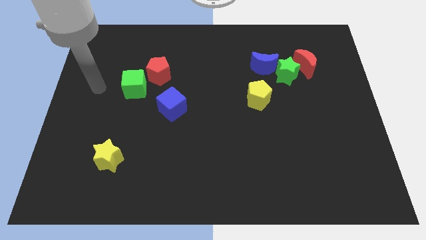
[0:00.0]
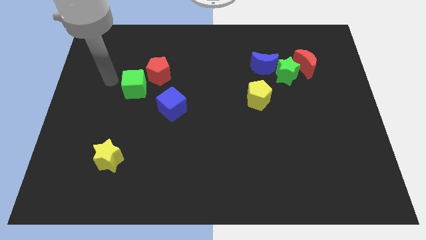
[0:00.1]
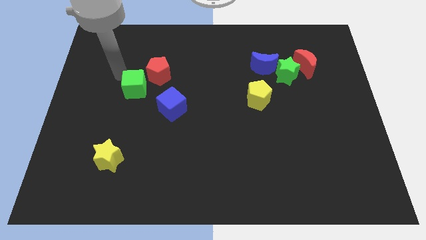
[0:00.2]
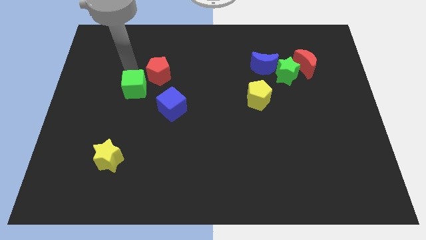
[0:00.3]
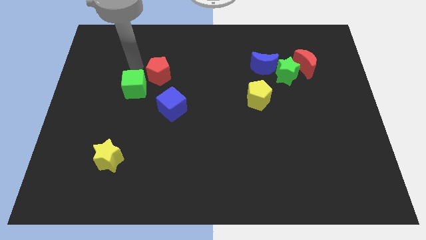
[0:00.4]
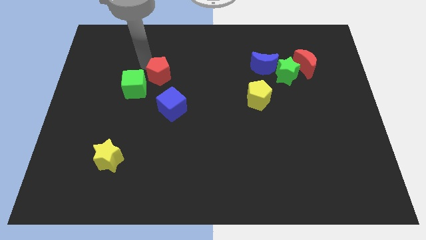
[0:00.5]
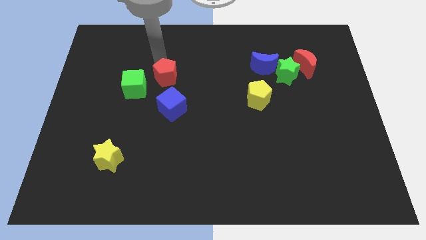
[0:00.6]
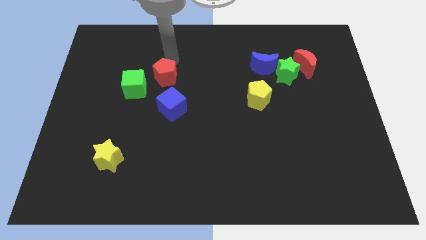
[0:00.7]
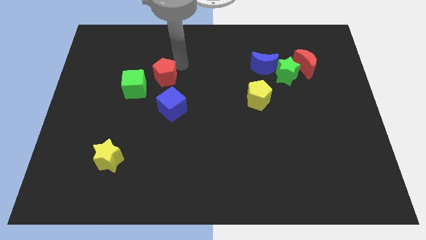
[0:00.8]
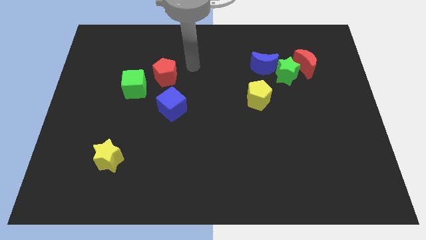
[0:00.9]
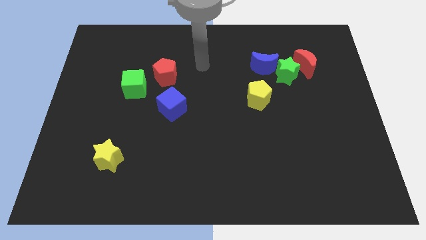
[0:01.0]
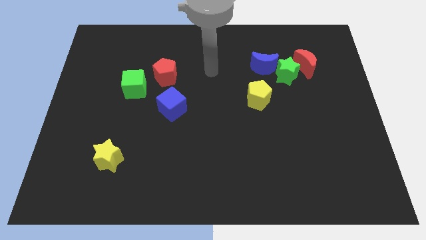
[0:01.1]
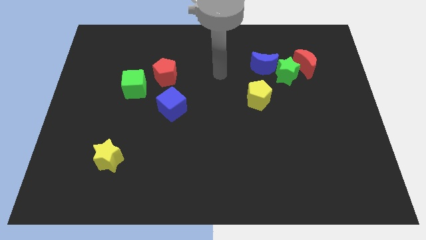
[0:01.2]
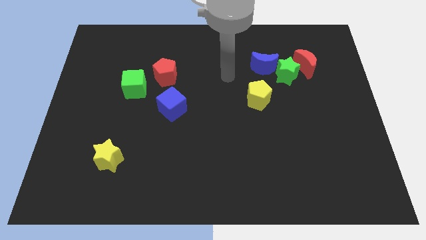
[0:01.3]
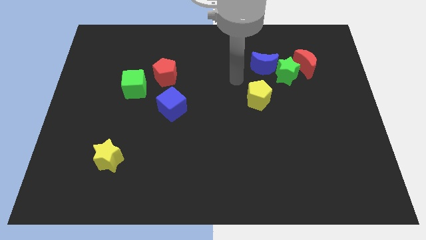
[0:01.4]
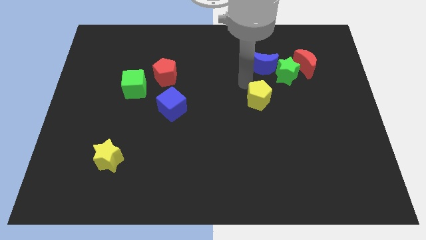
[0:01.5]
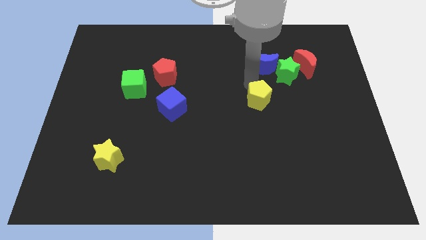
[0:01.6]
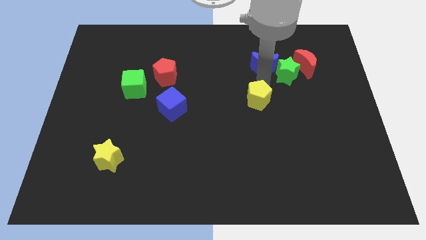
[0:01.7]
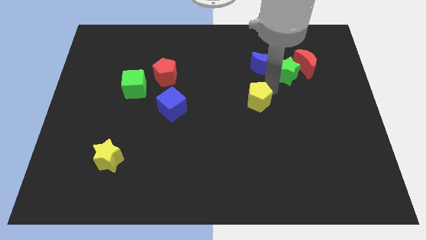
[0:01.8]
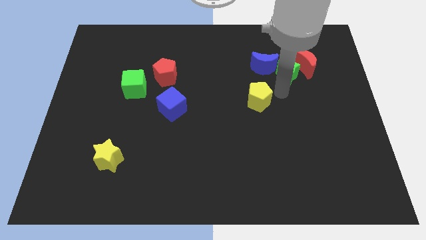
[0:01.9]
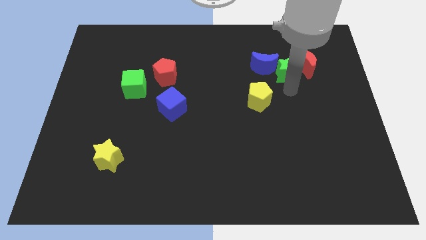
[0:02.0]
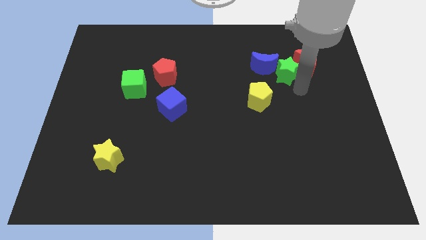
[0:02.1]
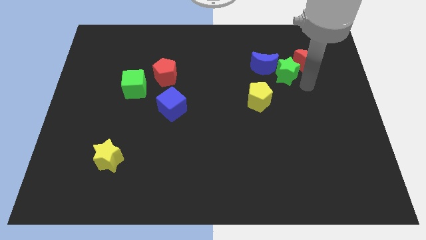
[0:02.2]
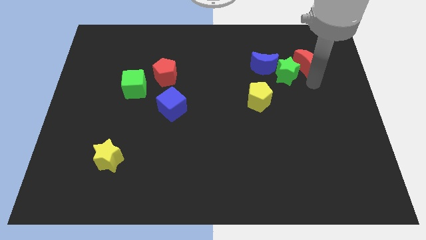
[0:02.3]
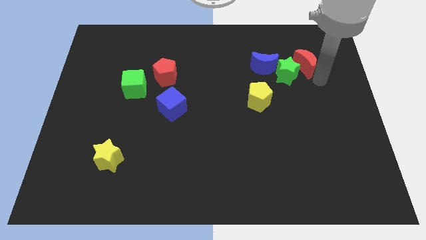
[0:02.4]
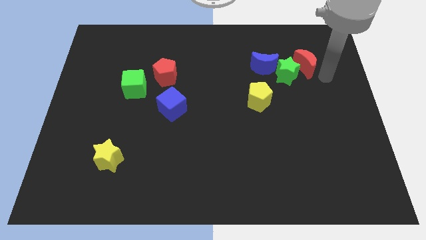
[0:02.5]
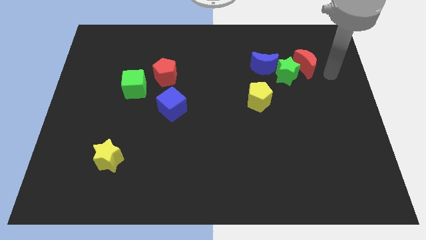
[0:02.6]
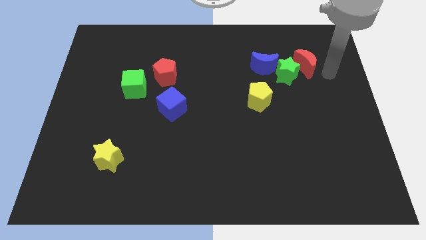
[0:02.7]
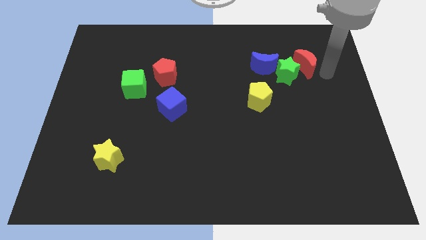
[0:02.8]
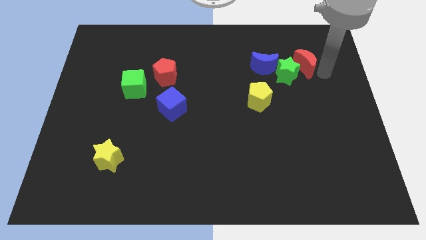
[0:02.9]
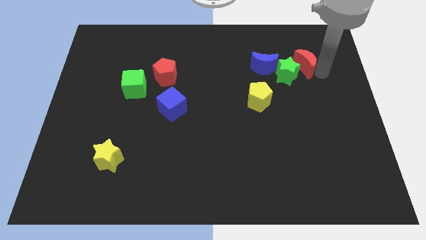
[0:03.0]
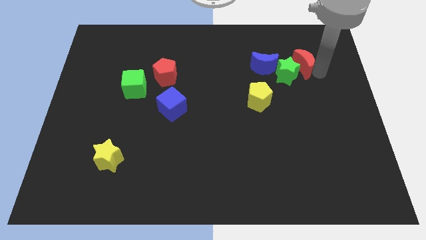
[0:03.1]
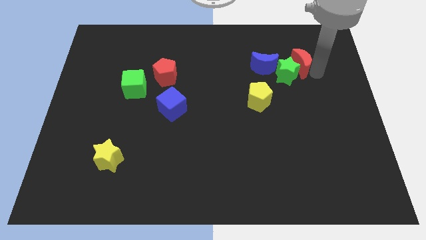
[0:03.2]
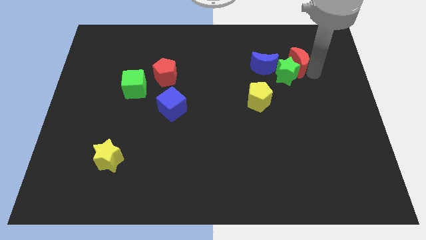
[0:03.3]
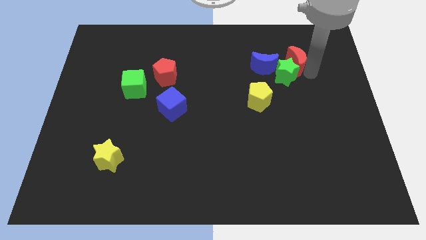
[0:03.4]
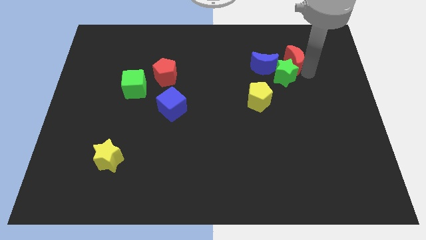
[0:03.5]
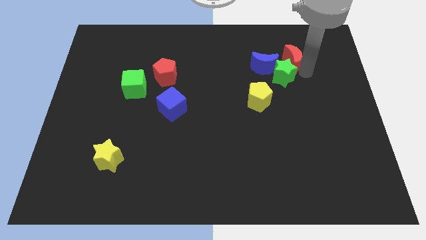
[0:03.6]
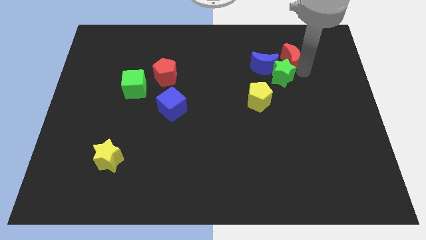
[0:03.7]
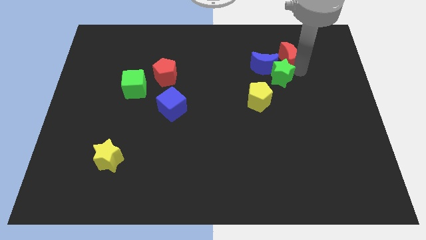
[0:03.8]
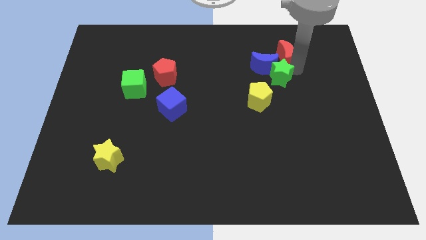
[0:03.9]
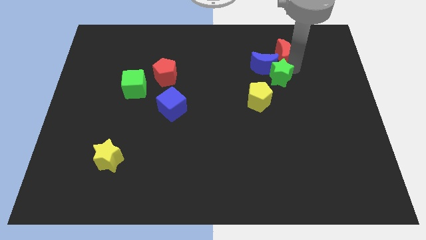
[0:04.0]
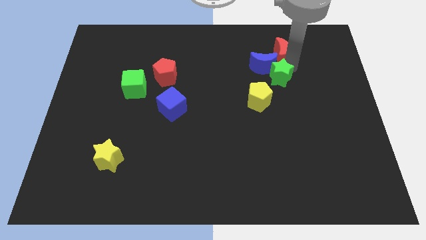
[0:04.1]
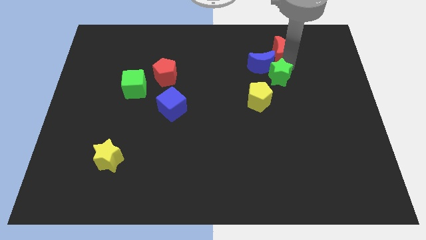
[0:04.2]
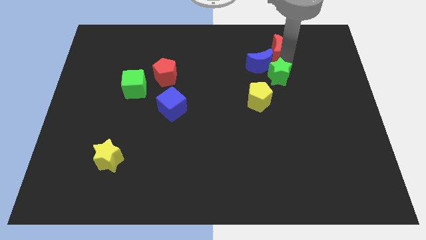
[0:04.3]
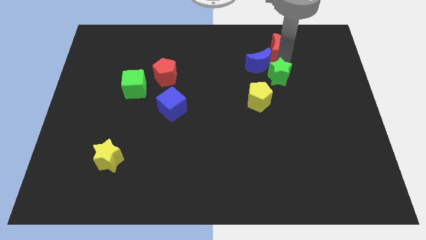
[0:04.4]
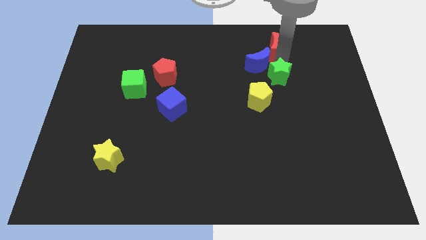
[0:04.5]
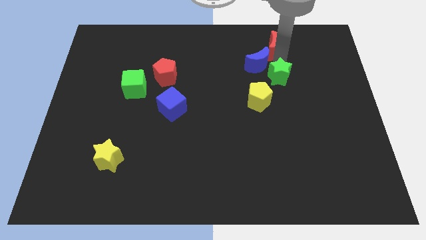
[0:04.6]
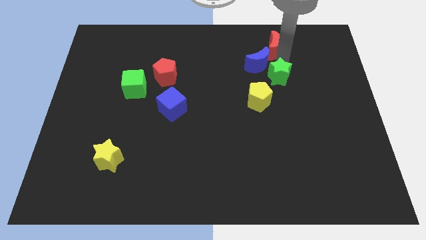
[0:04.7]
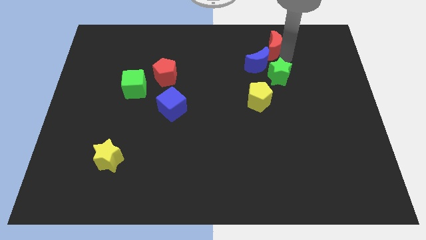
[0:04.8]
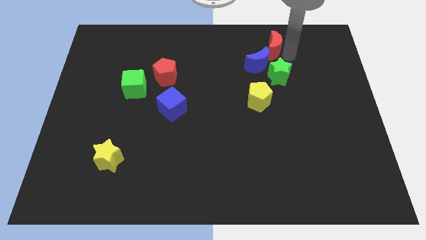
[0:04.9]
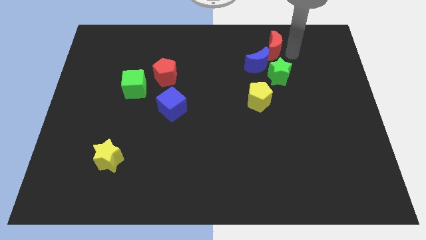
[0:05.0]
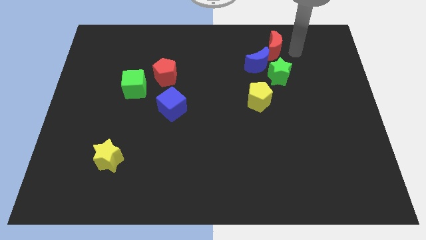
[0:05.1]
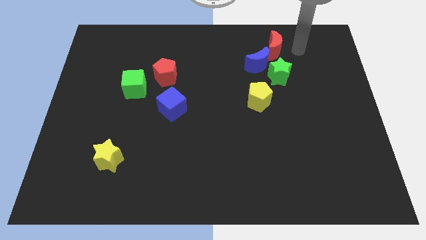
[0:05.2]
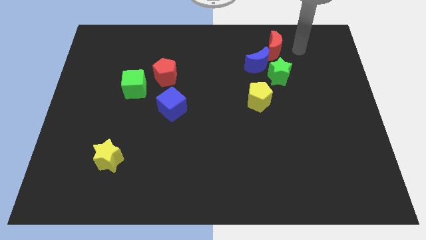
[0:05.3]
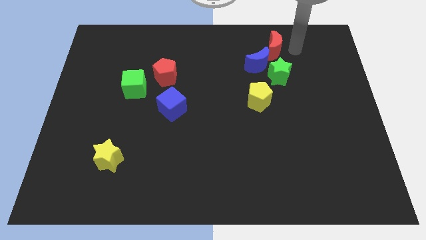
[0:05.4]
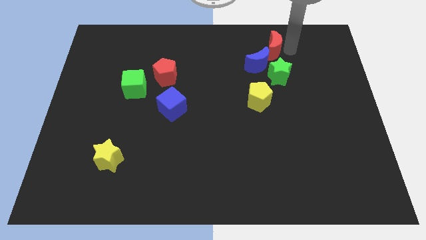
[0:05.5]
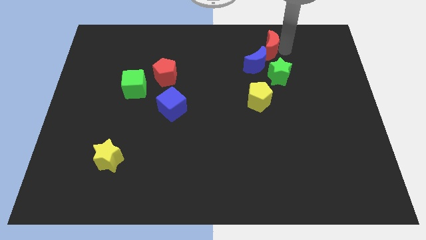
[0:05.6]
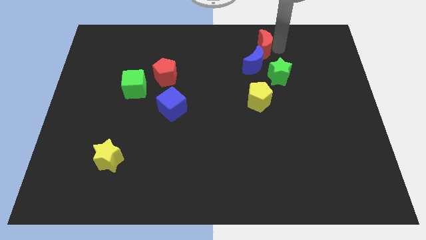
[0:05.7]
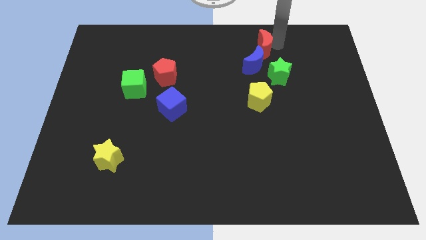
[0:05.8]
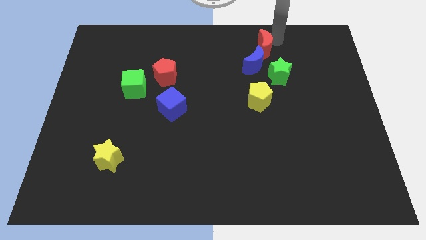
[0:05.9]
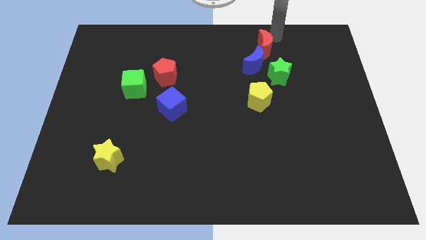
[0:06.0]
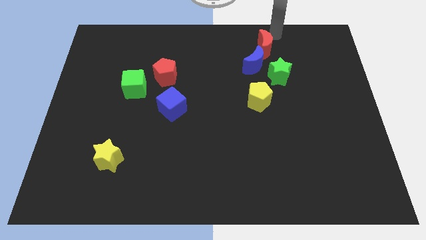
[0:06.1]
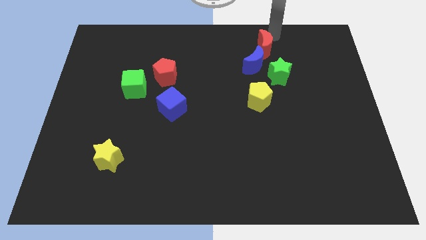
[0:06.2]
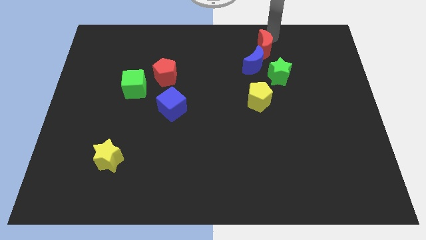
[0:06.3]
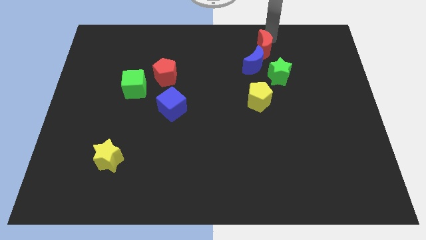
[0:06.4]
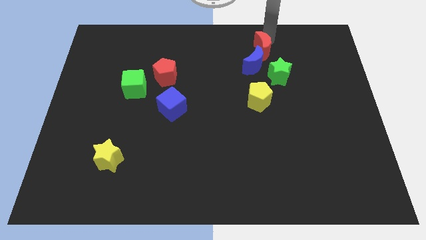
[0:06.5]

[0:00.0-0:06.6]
push the red moon to the top left of the green star
